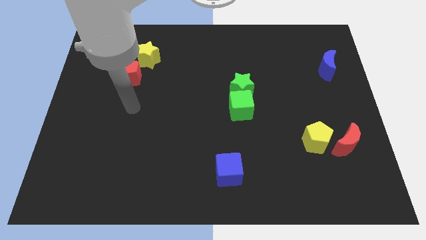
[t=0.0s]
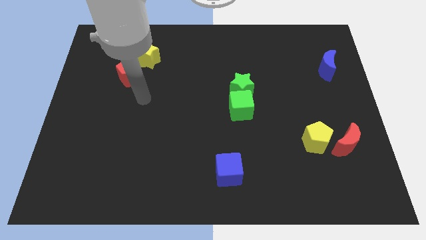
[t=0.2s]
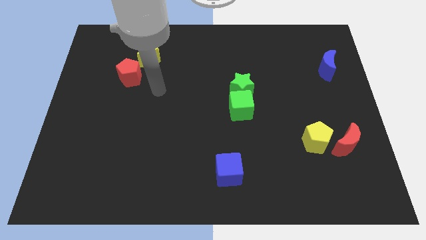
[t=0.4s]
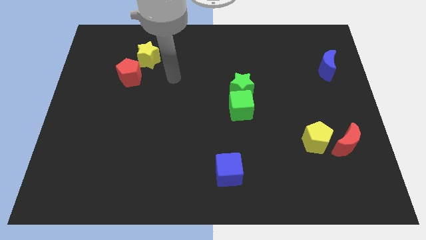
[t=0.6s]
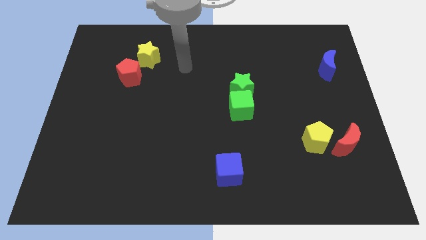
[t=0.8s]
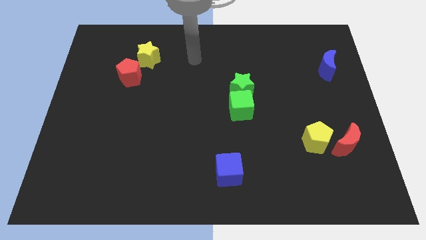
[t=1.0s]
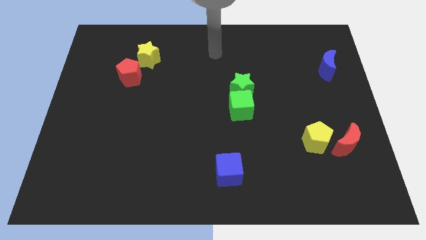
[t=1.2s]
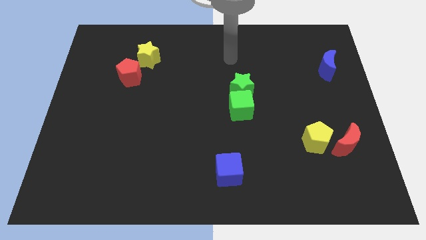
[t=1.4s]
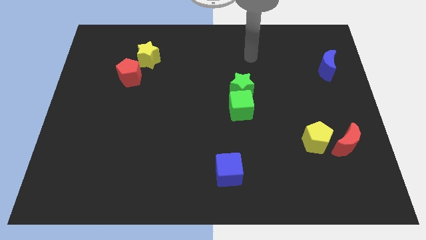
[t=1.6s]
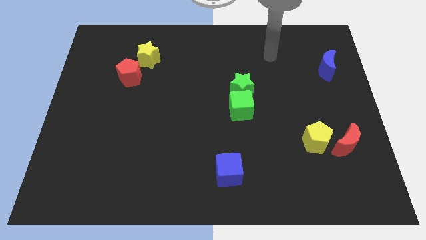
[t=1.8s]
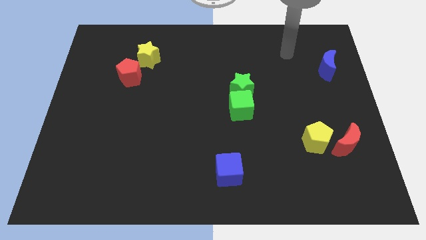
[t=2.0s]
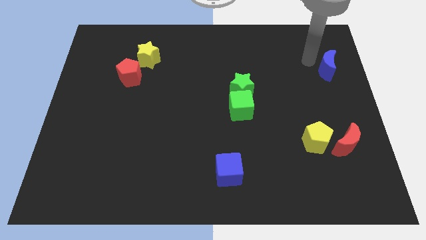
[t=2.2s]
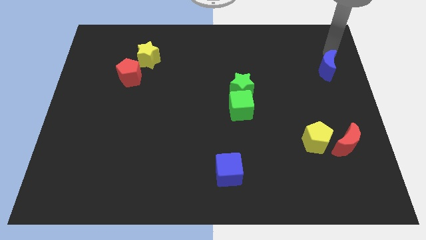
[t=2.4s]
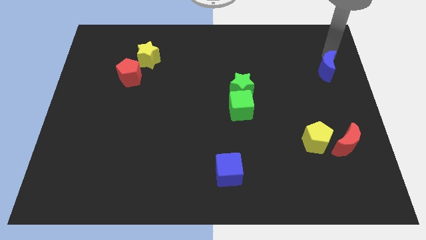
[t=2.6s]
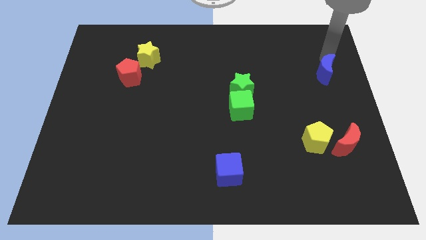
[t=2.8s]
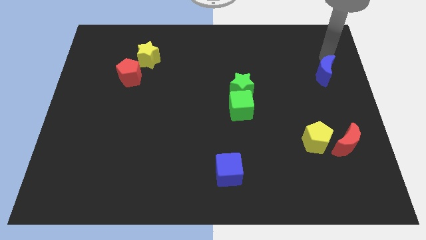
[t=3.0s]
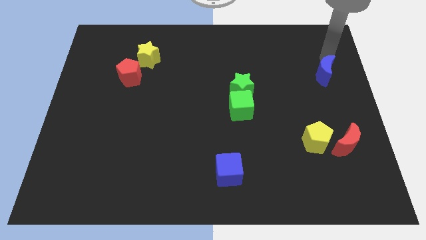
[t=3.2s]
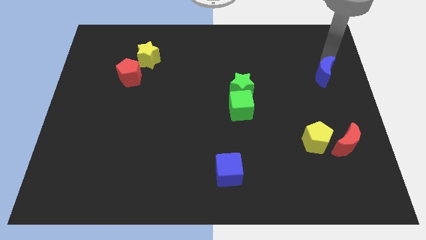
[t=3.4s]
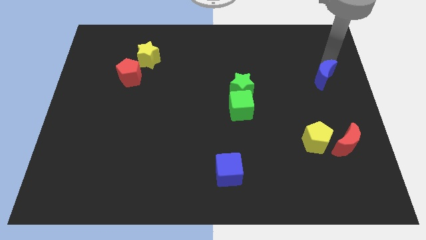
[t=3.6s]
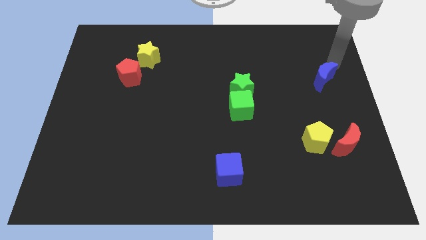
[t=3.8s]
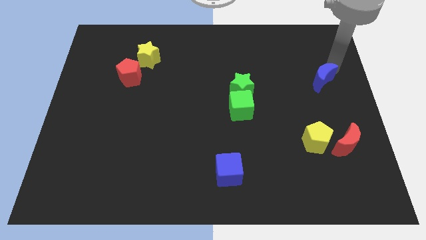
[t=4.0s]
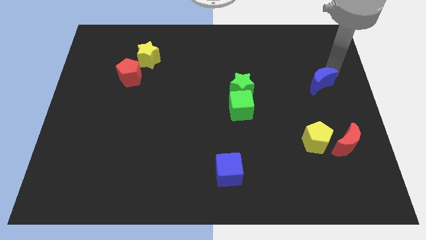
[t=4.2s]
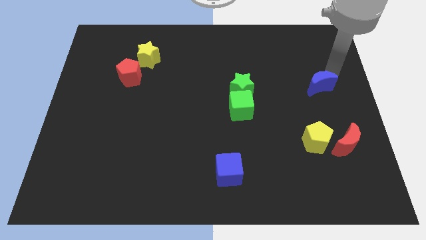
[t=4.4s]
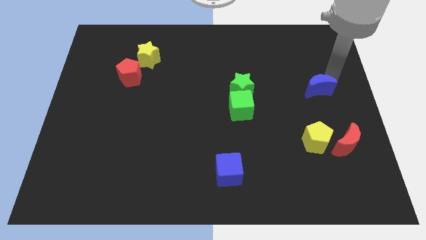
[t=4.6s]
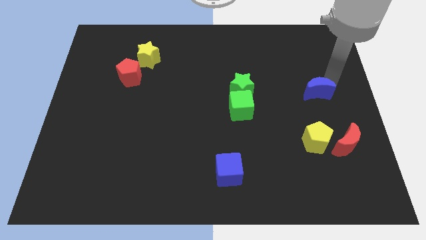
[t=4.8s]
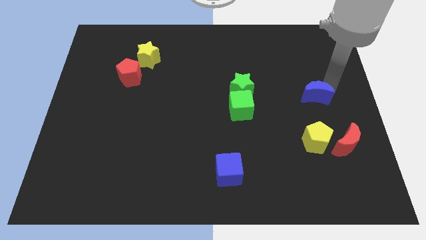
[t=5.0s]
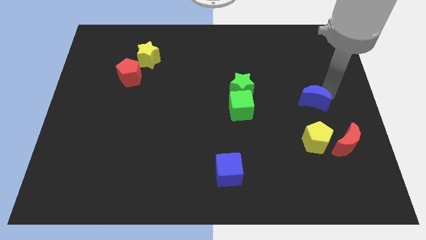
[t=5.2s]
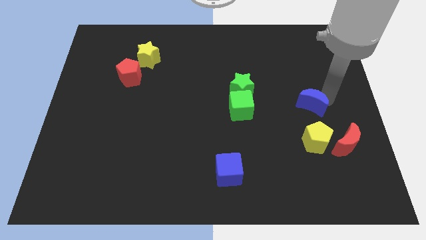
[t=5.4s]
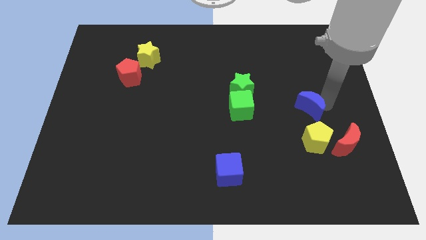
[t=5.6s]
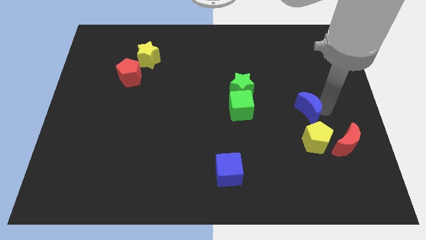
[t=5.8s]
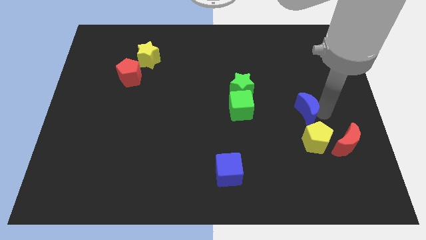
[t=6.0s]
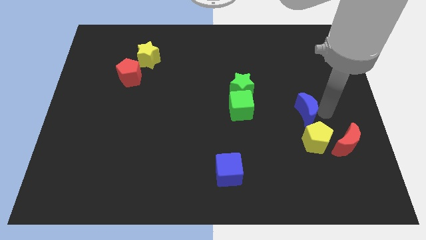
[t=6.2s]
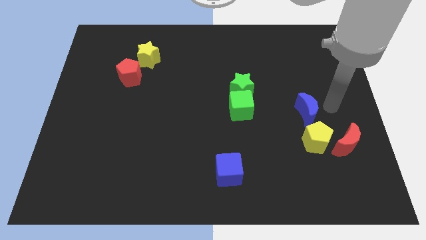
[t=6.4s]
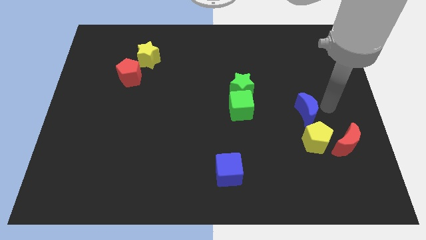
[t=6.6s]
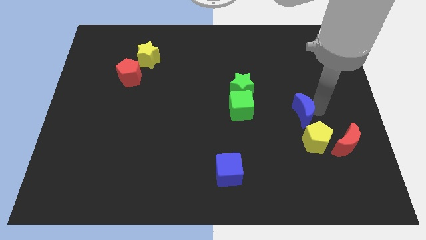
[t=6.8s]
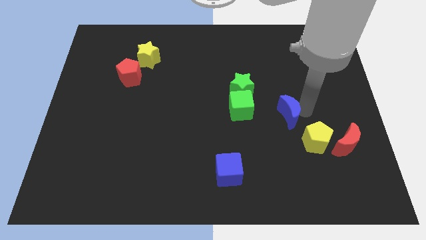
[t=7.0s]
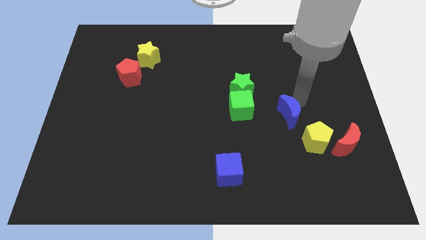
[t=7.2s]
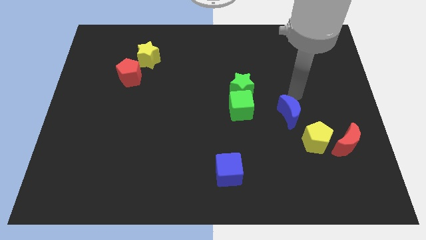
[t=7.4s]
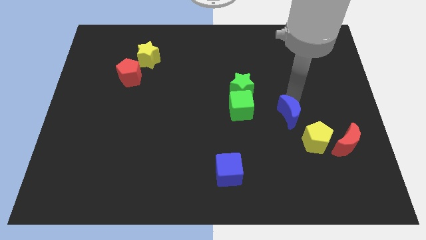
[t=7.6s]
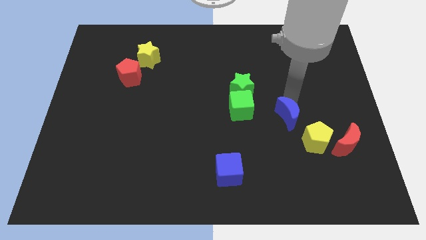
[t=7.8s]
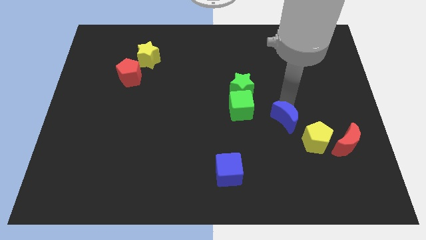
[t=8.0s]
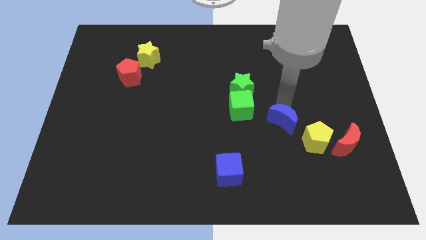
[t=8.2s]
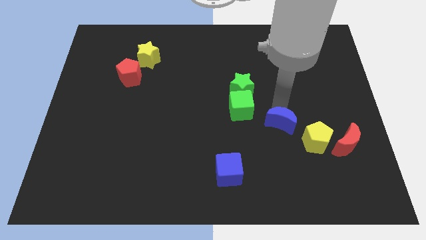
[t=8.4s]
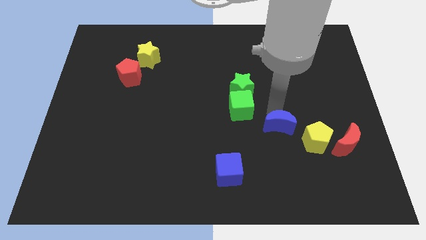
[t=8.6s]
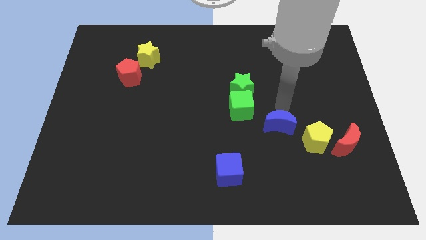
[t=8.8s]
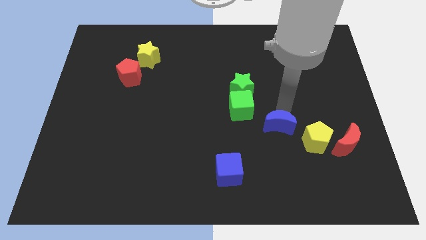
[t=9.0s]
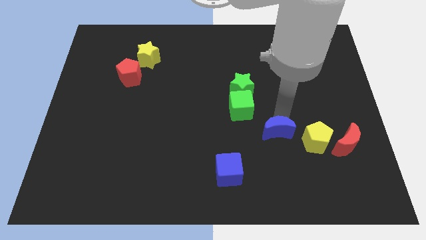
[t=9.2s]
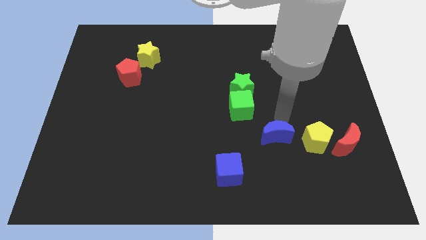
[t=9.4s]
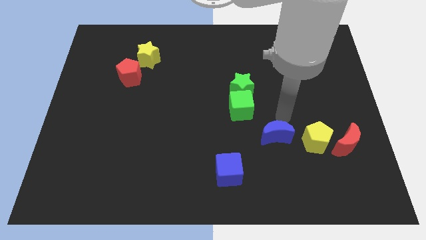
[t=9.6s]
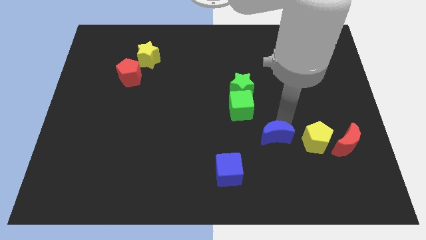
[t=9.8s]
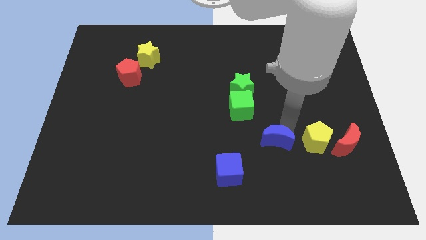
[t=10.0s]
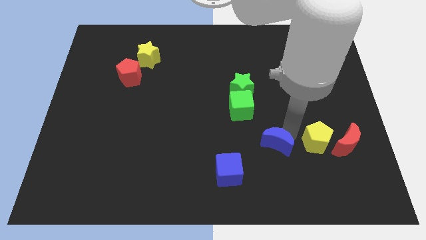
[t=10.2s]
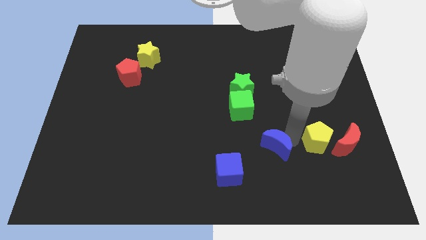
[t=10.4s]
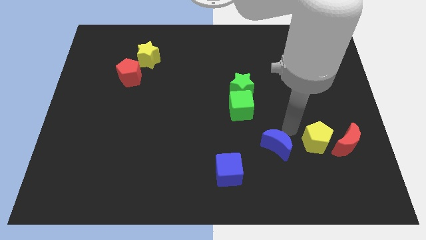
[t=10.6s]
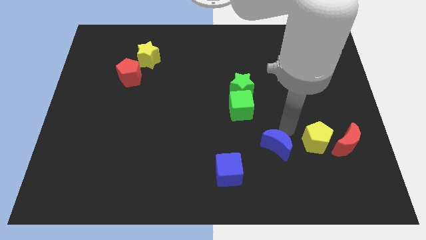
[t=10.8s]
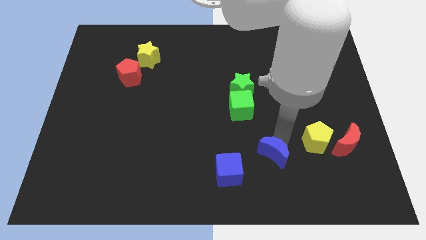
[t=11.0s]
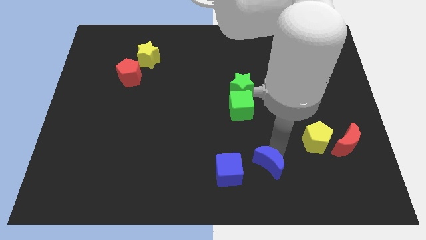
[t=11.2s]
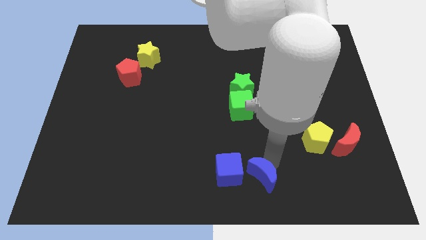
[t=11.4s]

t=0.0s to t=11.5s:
put the blue moon to the bottom

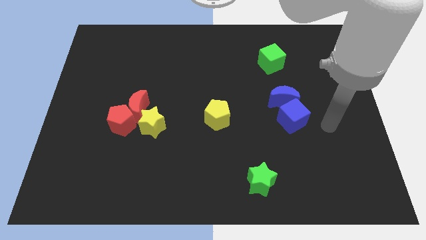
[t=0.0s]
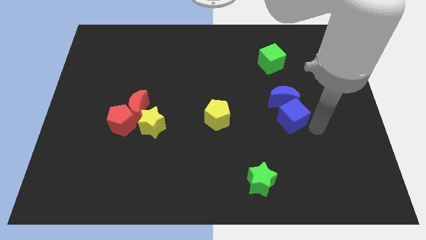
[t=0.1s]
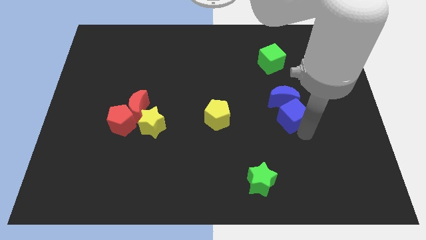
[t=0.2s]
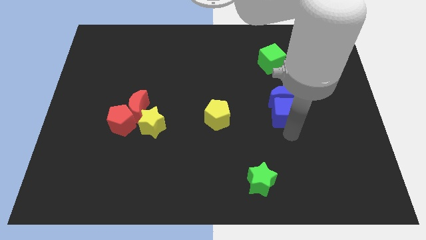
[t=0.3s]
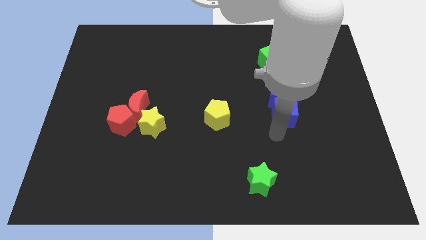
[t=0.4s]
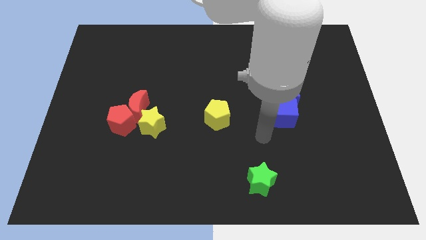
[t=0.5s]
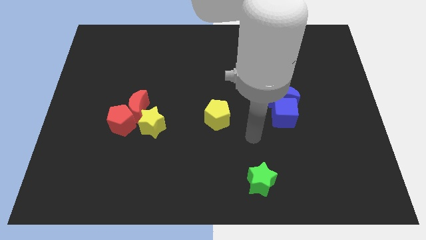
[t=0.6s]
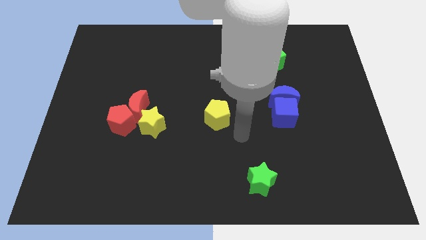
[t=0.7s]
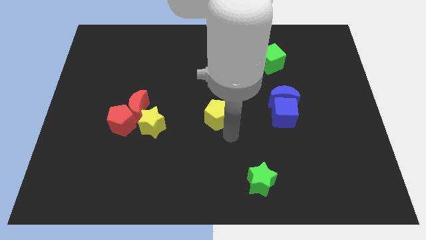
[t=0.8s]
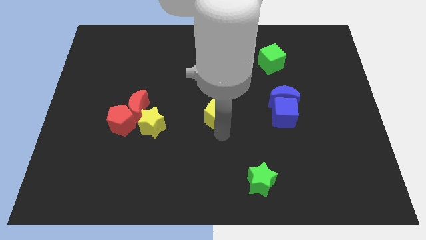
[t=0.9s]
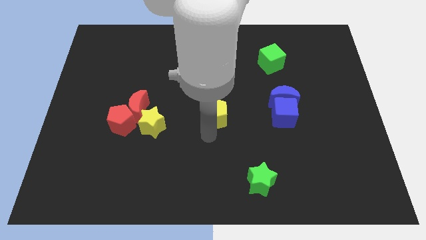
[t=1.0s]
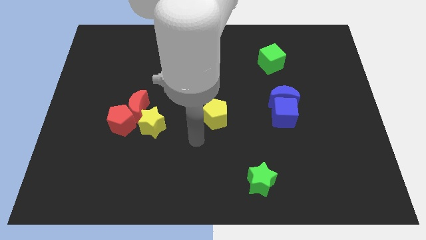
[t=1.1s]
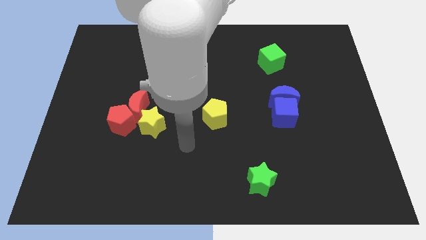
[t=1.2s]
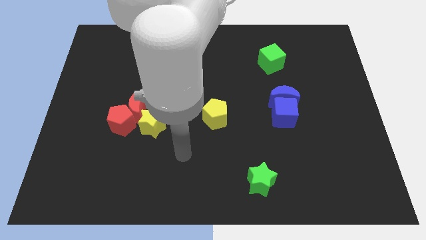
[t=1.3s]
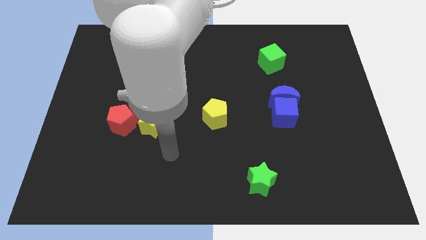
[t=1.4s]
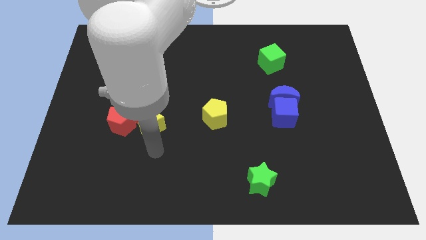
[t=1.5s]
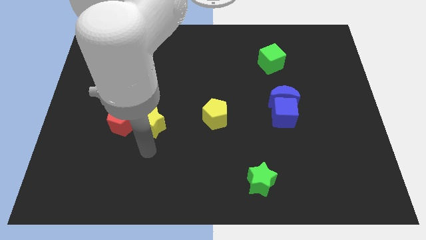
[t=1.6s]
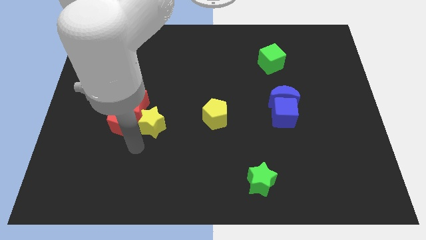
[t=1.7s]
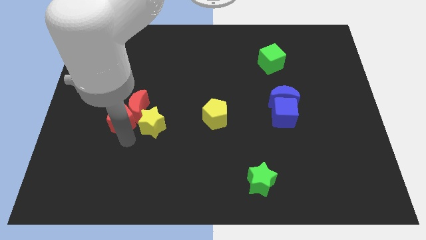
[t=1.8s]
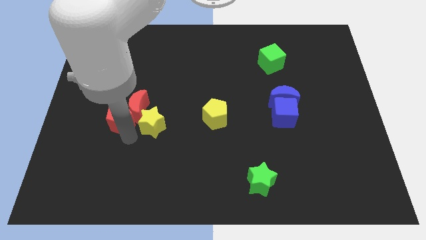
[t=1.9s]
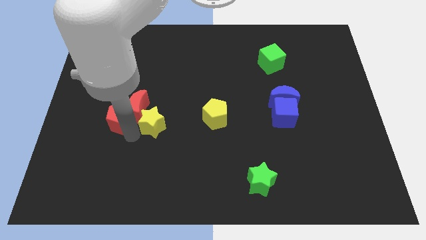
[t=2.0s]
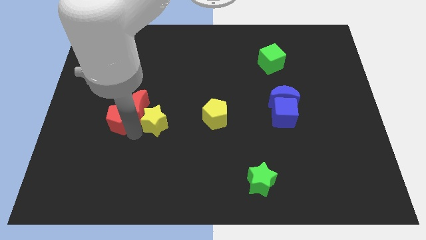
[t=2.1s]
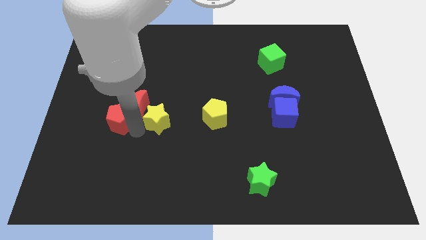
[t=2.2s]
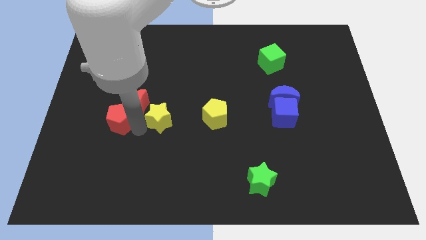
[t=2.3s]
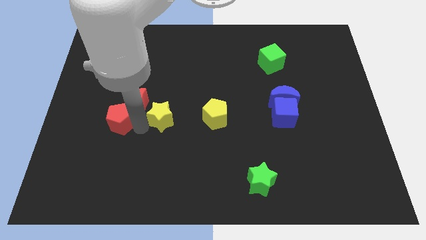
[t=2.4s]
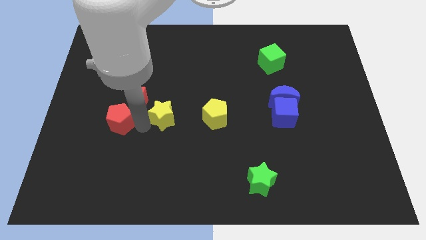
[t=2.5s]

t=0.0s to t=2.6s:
put the yellow star to the middle
